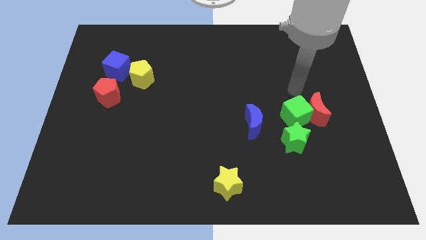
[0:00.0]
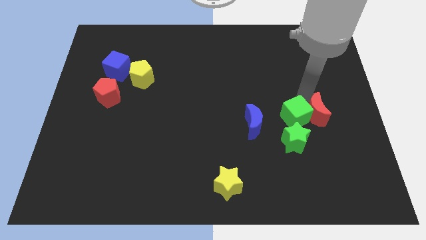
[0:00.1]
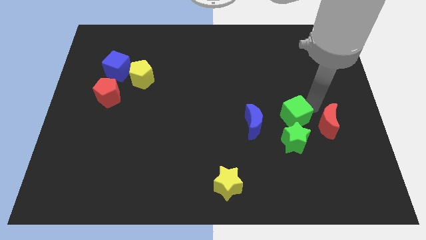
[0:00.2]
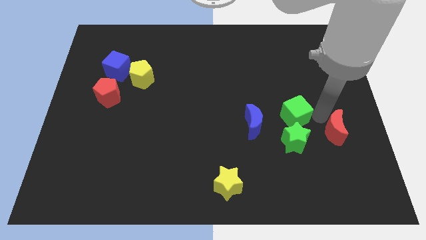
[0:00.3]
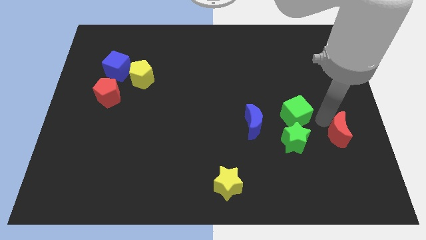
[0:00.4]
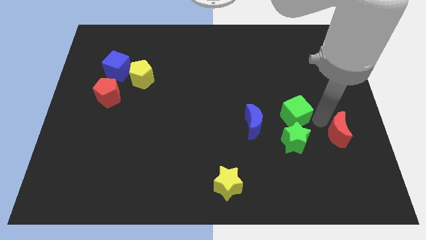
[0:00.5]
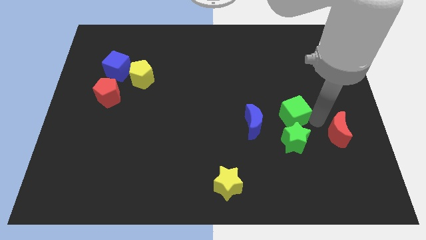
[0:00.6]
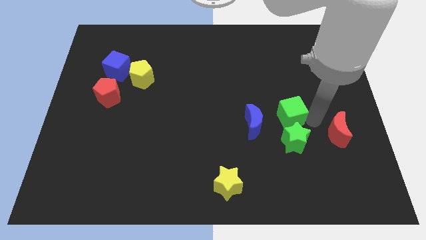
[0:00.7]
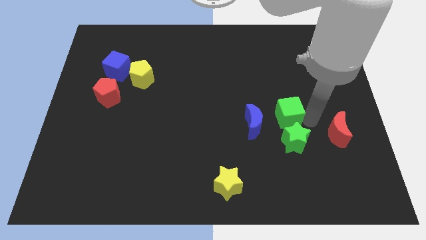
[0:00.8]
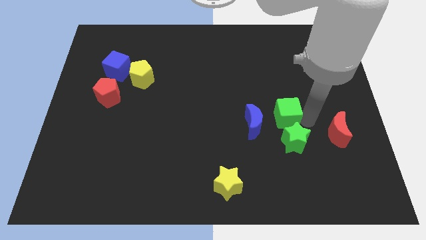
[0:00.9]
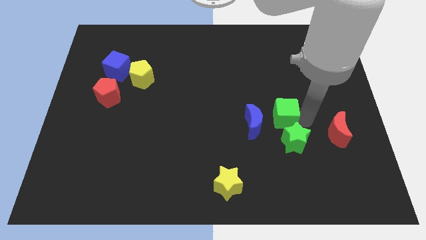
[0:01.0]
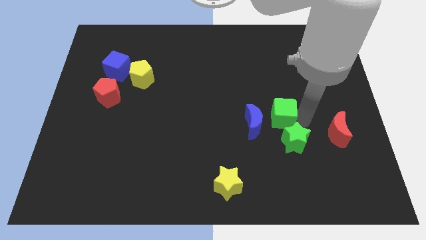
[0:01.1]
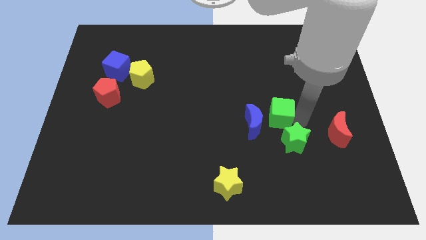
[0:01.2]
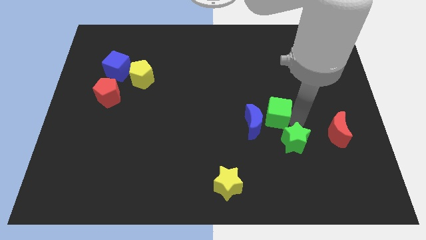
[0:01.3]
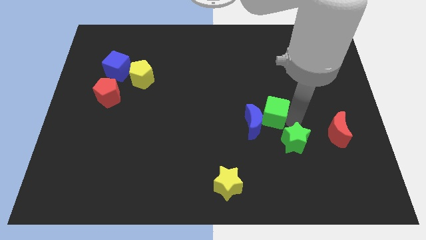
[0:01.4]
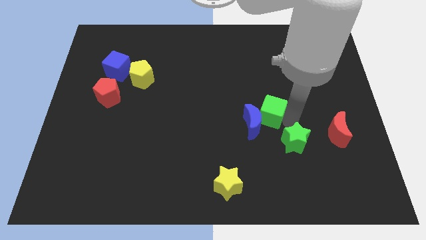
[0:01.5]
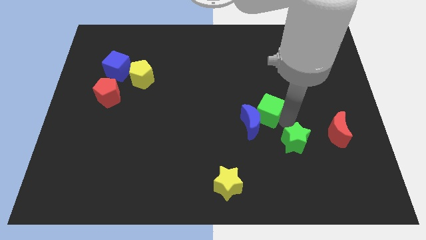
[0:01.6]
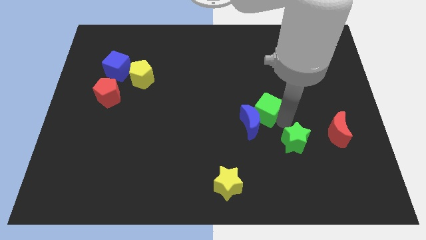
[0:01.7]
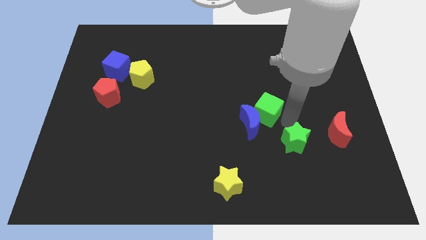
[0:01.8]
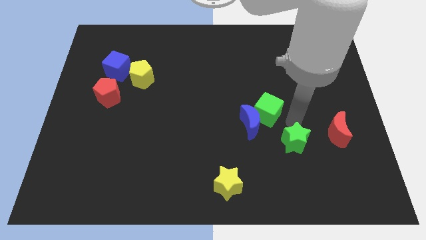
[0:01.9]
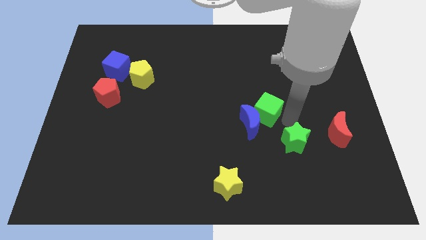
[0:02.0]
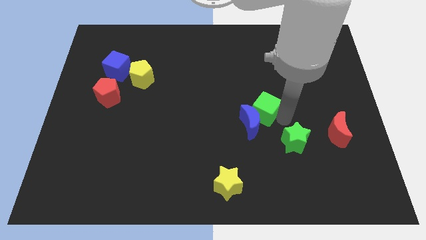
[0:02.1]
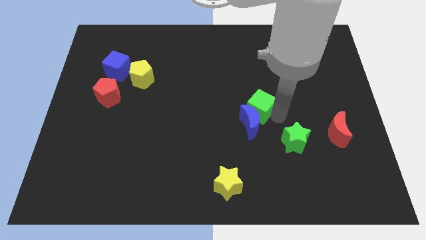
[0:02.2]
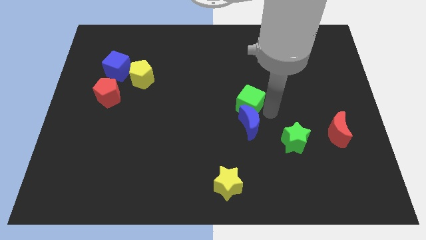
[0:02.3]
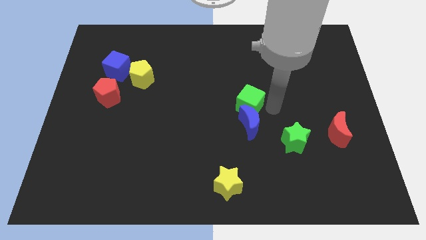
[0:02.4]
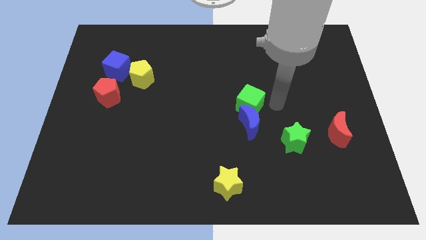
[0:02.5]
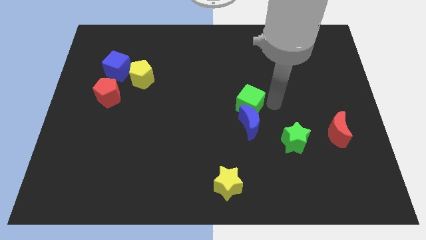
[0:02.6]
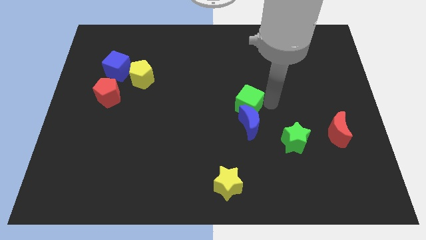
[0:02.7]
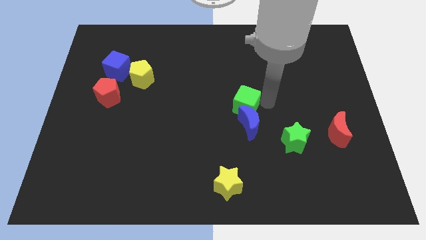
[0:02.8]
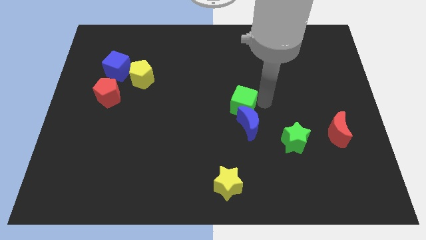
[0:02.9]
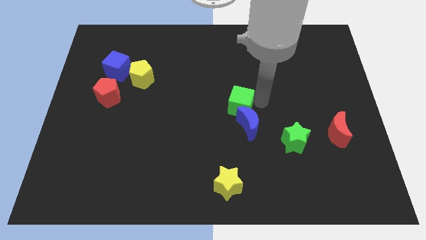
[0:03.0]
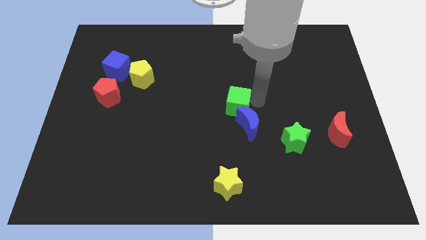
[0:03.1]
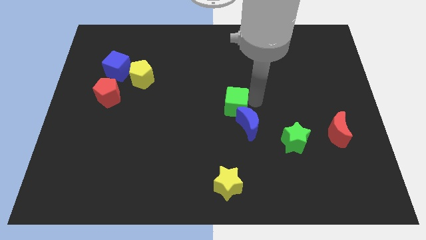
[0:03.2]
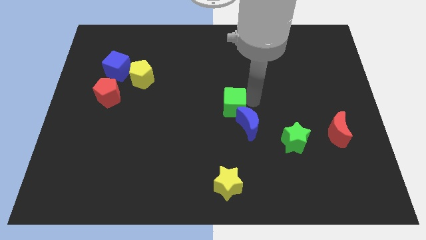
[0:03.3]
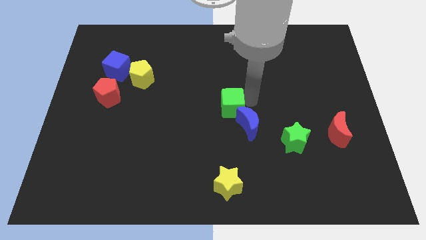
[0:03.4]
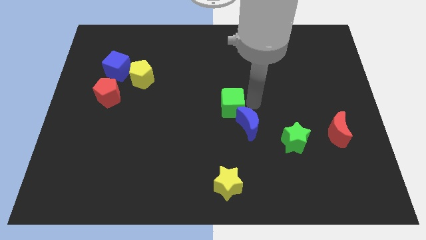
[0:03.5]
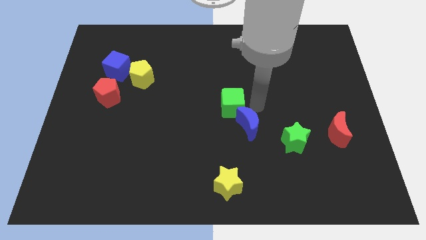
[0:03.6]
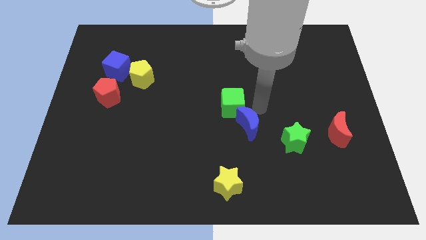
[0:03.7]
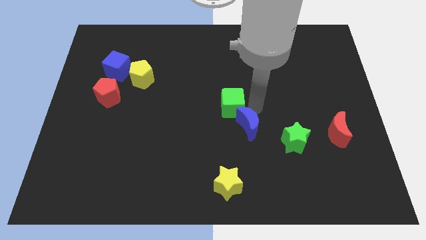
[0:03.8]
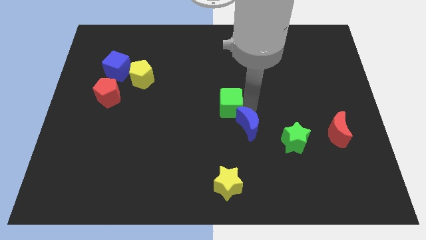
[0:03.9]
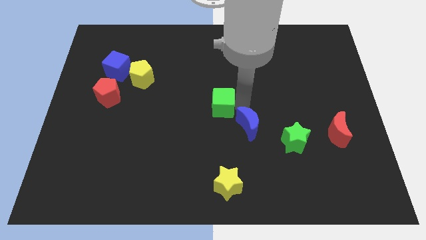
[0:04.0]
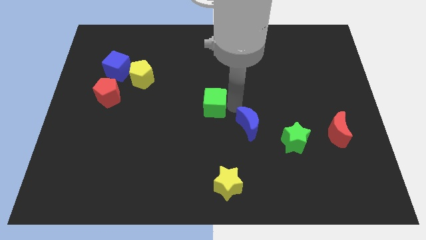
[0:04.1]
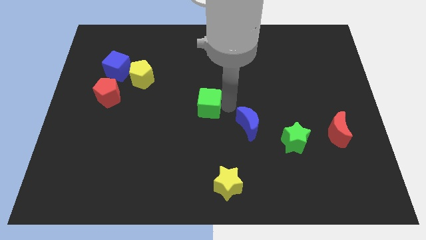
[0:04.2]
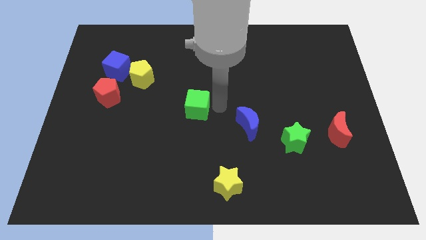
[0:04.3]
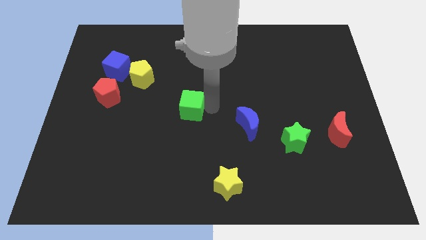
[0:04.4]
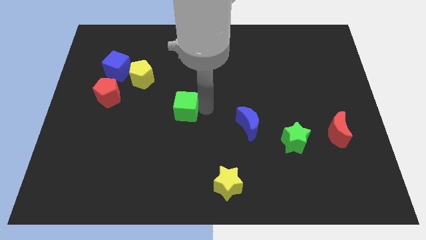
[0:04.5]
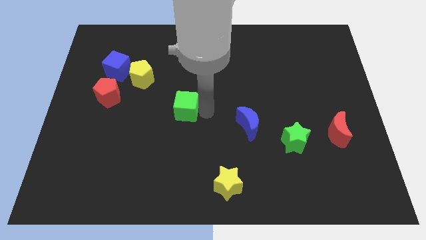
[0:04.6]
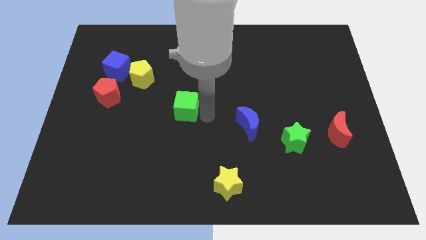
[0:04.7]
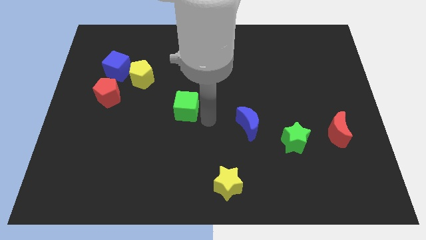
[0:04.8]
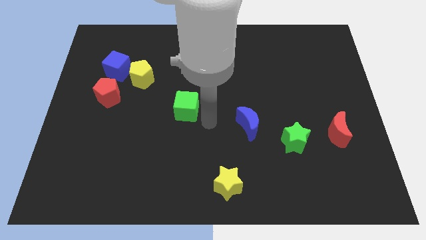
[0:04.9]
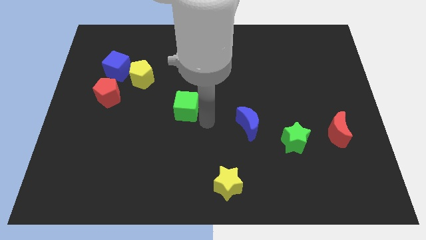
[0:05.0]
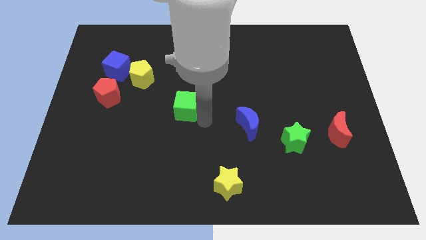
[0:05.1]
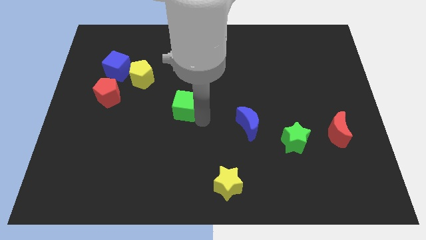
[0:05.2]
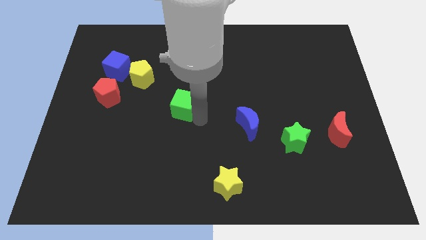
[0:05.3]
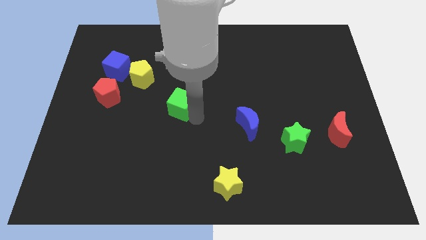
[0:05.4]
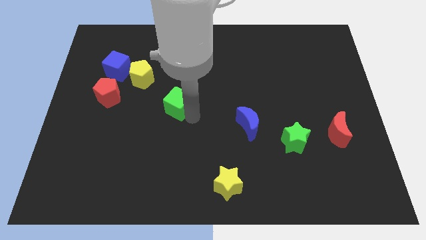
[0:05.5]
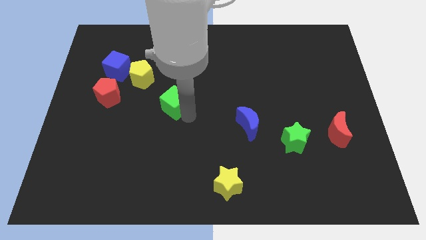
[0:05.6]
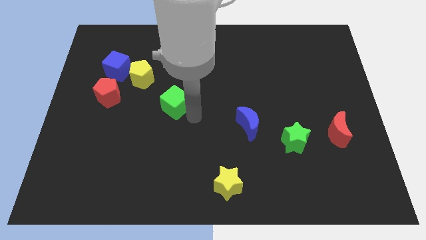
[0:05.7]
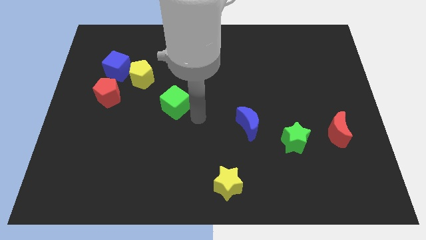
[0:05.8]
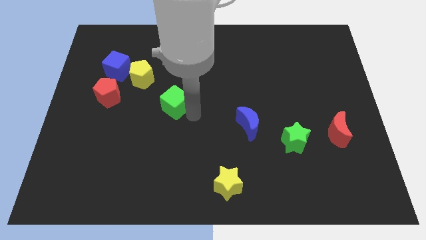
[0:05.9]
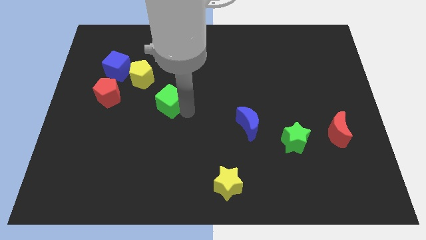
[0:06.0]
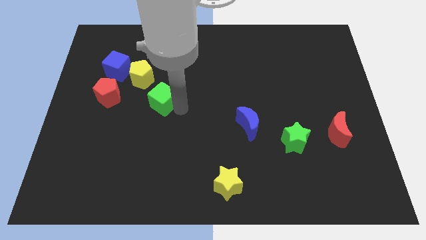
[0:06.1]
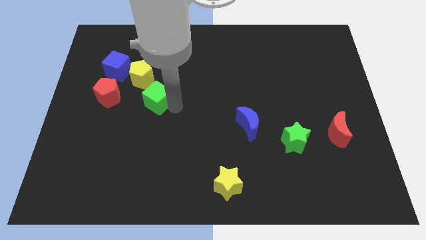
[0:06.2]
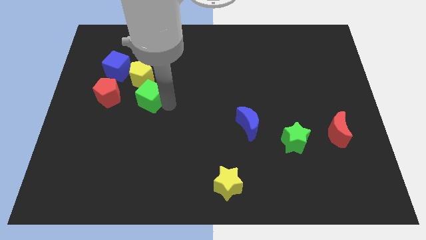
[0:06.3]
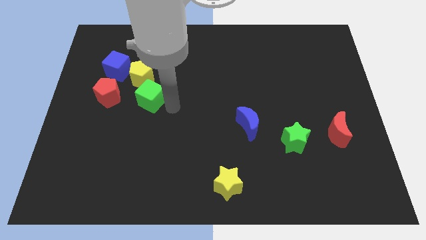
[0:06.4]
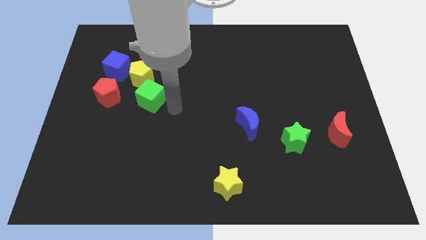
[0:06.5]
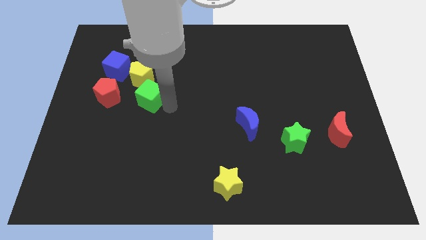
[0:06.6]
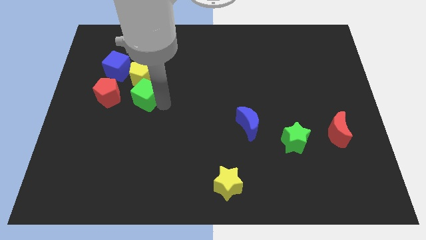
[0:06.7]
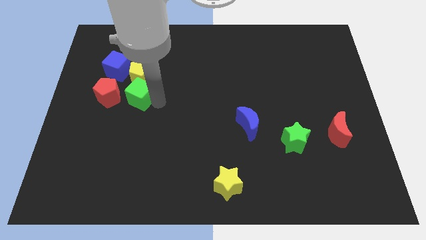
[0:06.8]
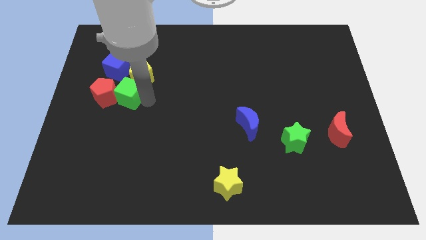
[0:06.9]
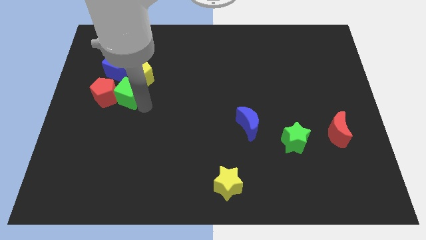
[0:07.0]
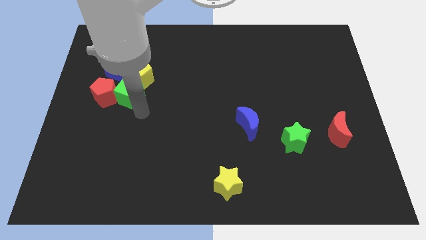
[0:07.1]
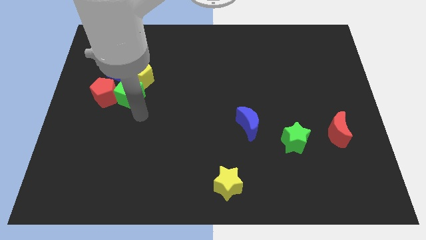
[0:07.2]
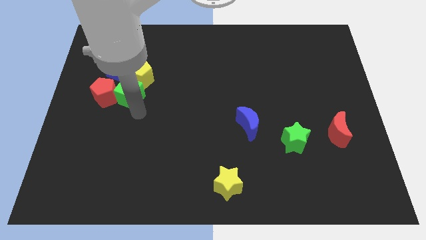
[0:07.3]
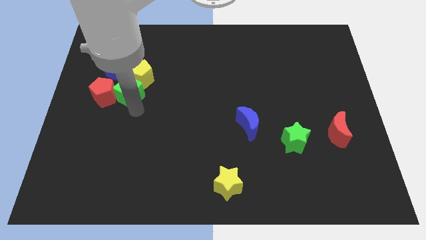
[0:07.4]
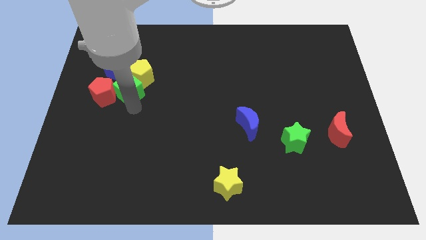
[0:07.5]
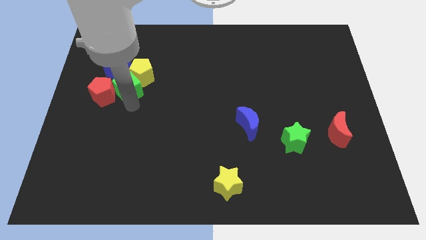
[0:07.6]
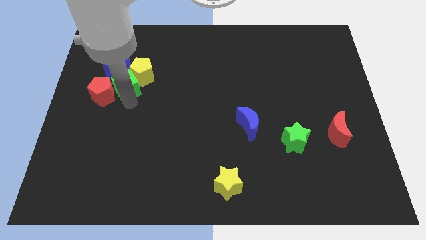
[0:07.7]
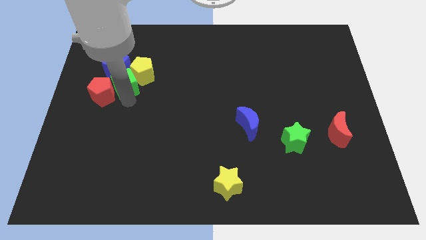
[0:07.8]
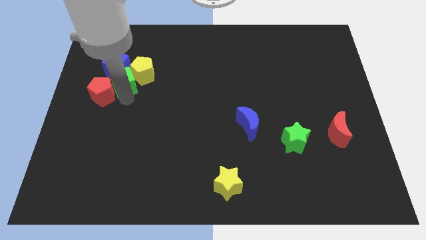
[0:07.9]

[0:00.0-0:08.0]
slide the green cube towards the blue cube
